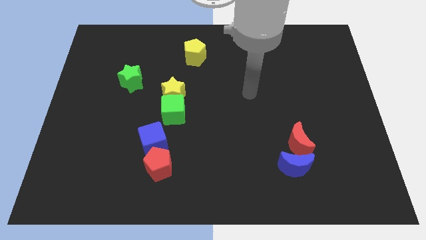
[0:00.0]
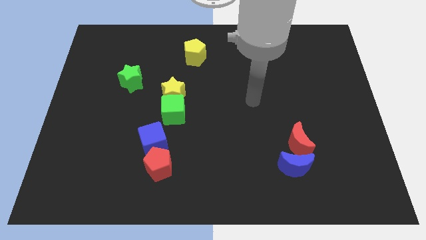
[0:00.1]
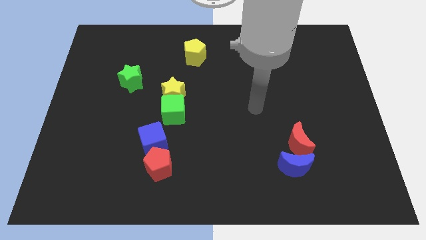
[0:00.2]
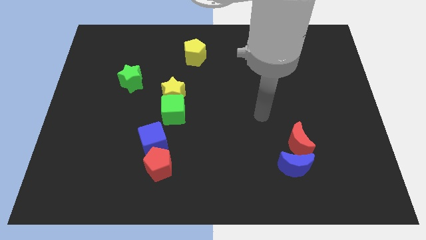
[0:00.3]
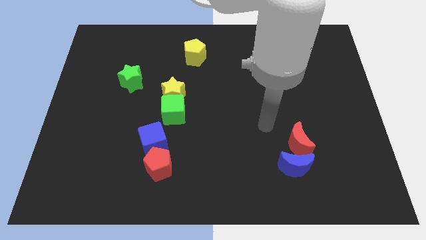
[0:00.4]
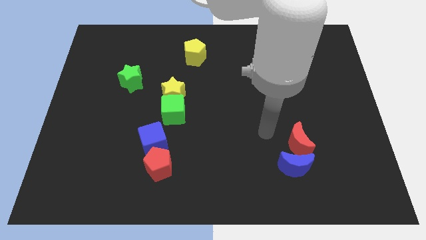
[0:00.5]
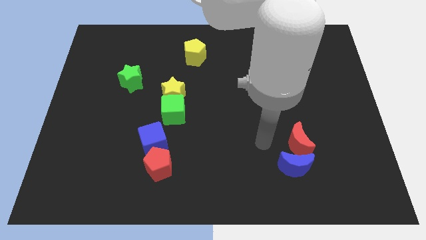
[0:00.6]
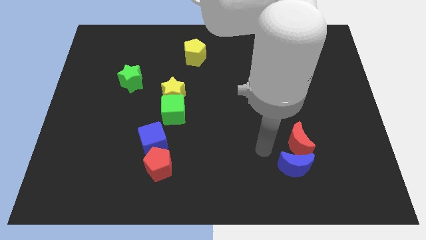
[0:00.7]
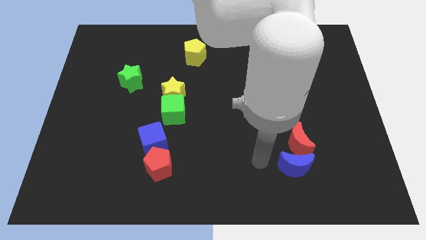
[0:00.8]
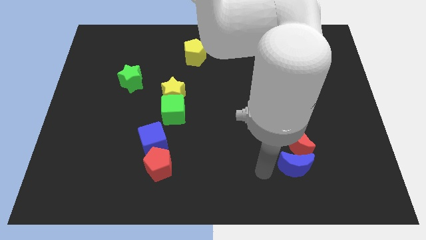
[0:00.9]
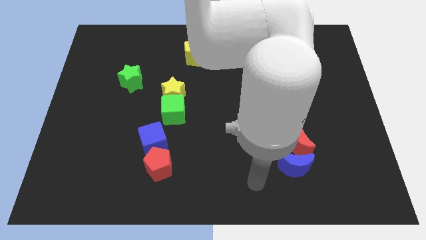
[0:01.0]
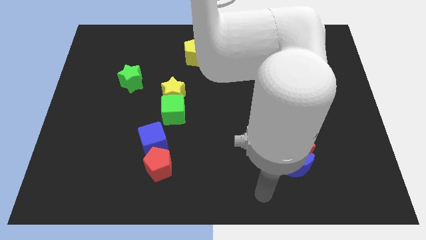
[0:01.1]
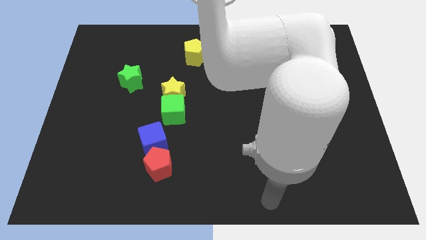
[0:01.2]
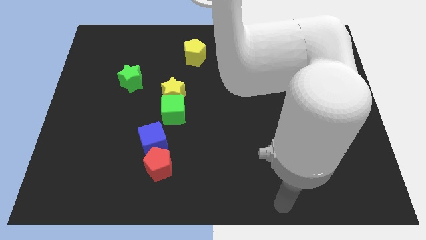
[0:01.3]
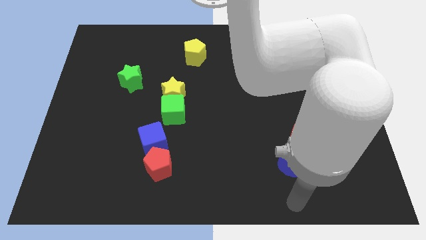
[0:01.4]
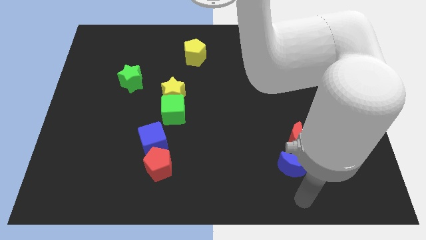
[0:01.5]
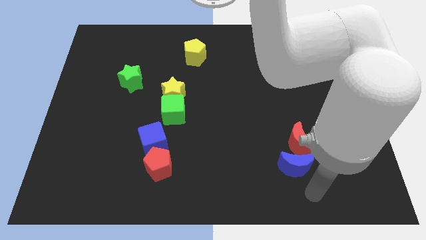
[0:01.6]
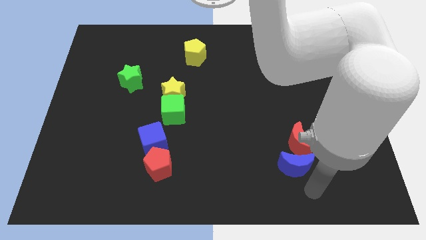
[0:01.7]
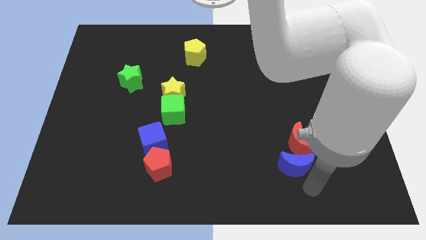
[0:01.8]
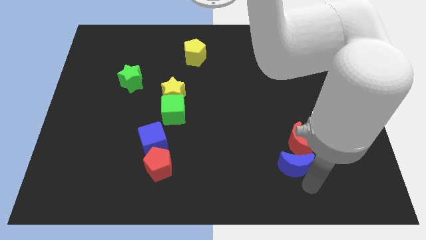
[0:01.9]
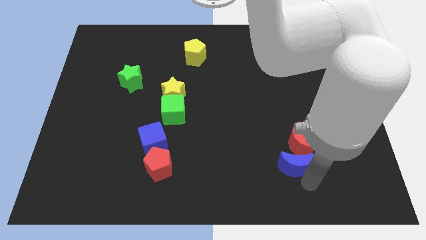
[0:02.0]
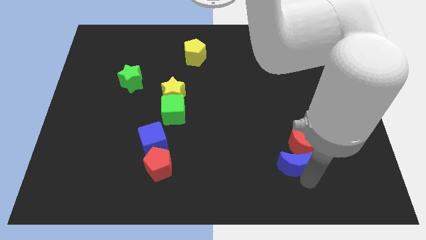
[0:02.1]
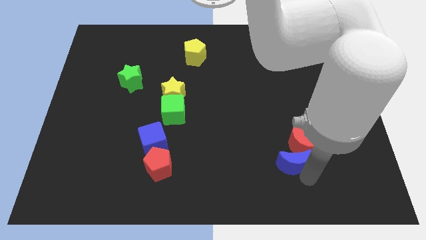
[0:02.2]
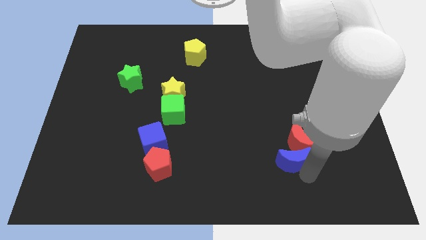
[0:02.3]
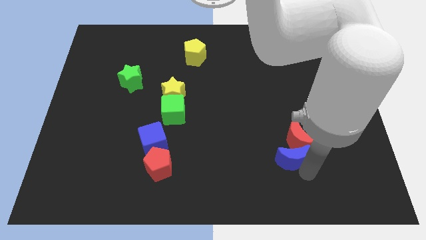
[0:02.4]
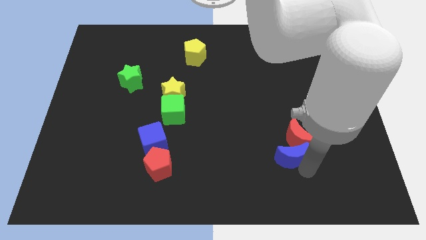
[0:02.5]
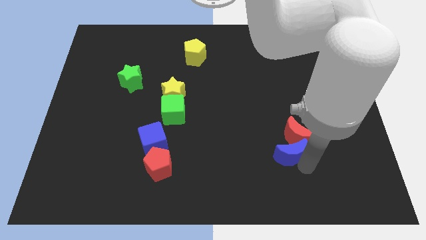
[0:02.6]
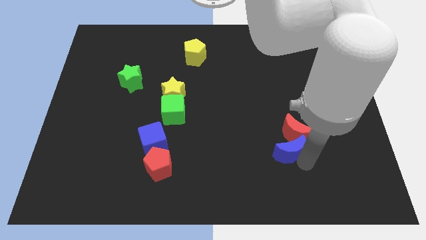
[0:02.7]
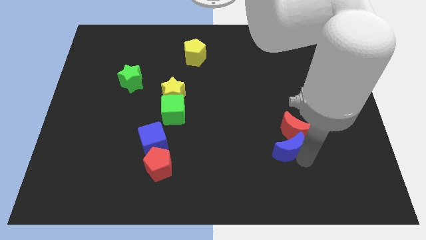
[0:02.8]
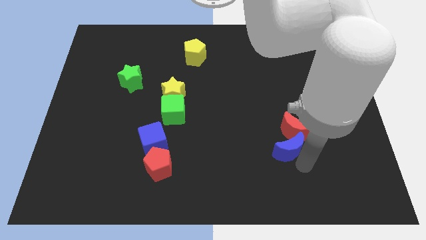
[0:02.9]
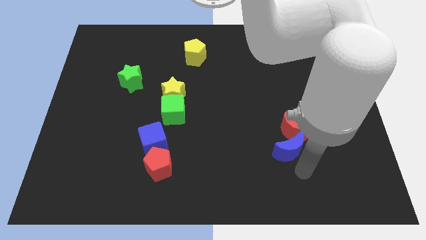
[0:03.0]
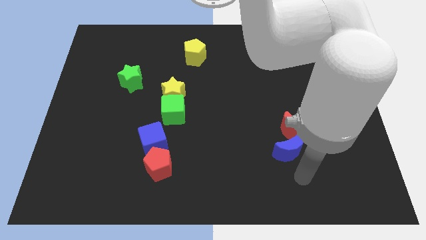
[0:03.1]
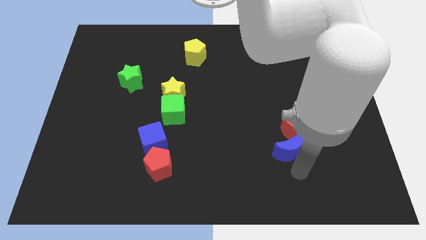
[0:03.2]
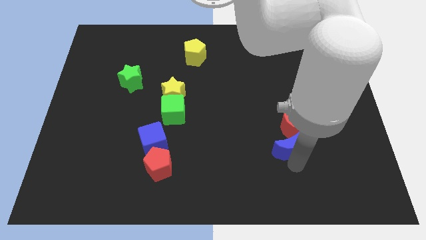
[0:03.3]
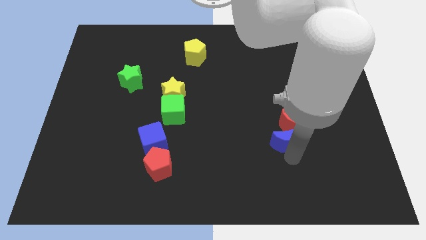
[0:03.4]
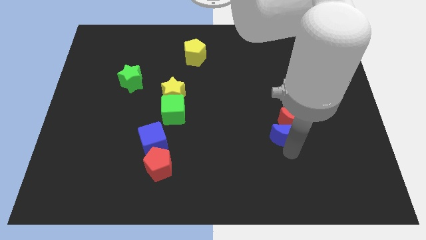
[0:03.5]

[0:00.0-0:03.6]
push the blue moon upwards slightly

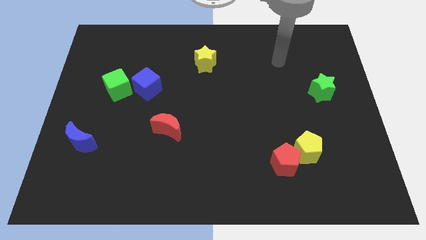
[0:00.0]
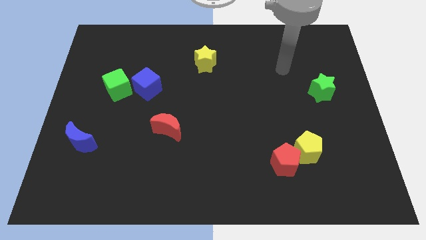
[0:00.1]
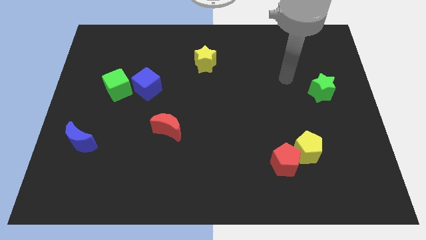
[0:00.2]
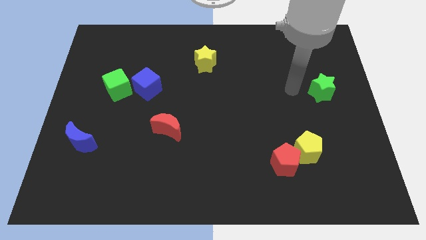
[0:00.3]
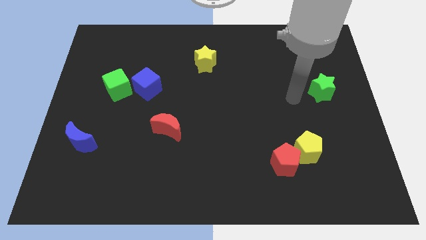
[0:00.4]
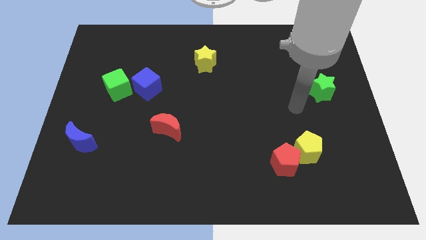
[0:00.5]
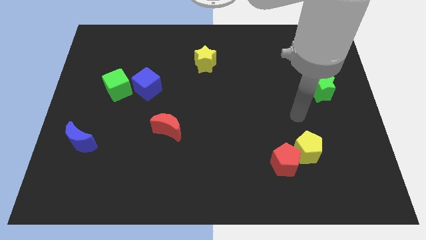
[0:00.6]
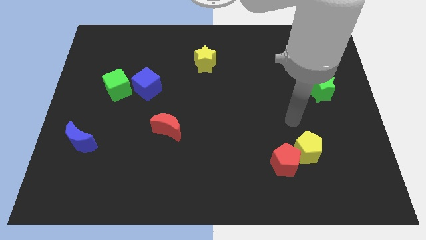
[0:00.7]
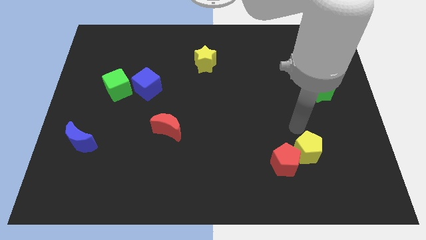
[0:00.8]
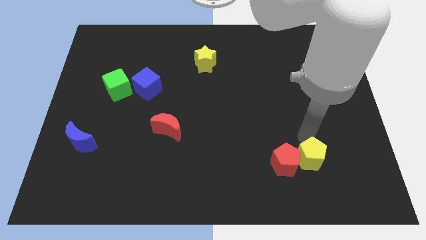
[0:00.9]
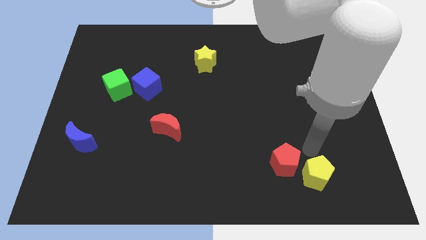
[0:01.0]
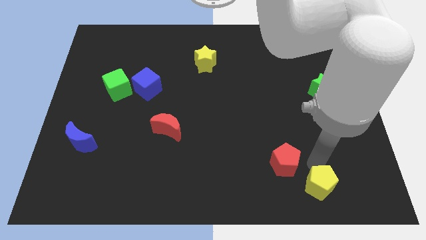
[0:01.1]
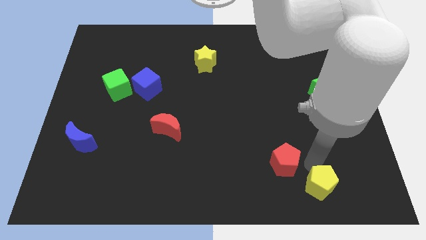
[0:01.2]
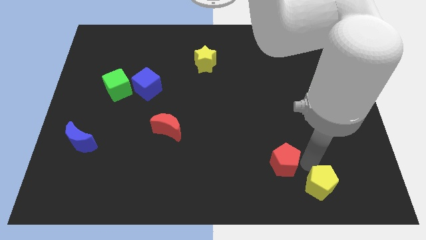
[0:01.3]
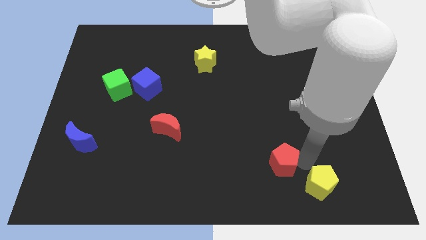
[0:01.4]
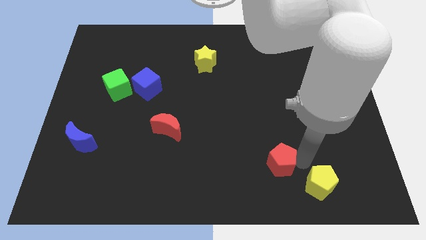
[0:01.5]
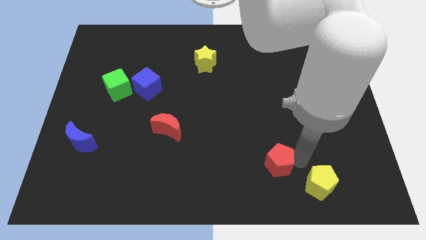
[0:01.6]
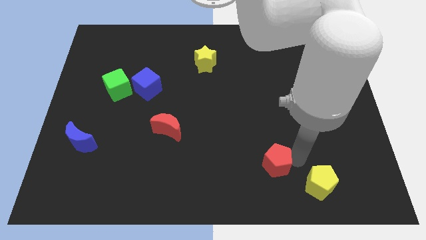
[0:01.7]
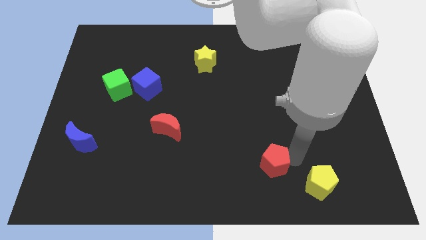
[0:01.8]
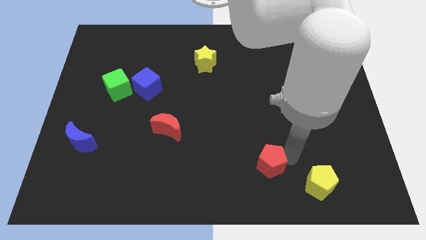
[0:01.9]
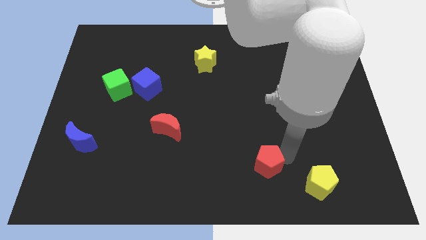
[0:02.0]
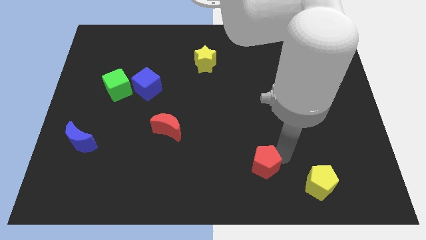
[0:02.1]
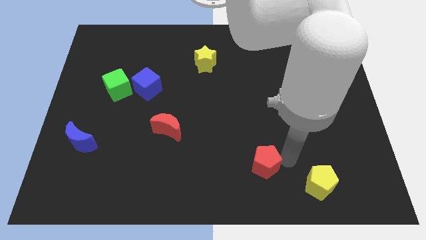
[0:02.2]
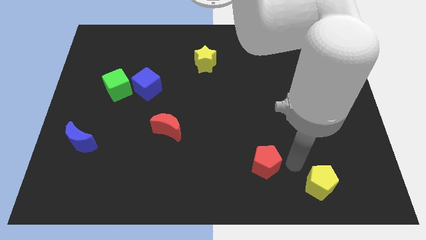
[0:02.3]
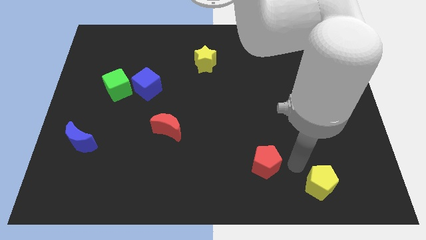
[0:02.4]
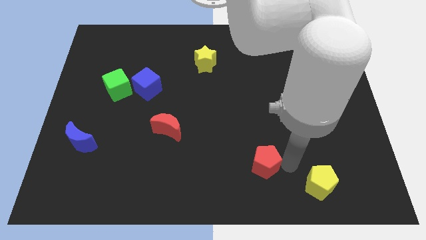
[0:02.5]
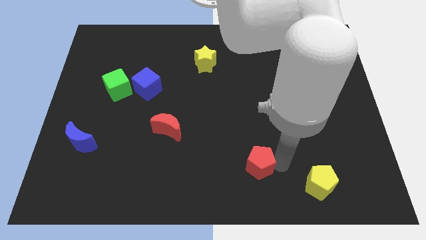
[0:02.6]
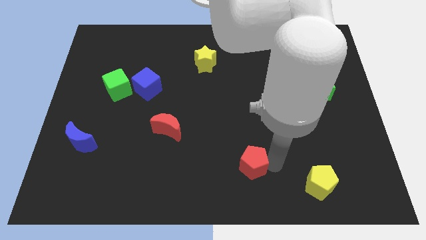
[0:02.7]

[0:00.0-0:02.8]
slide the red pentagon left a bit

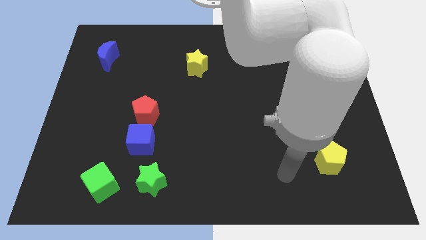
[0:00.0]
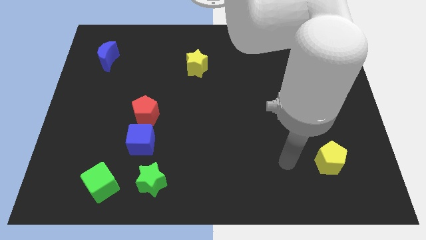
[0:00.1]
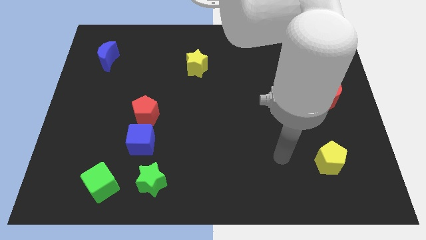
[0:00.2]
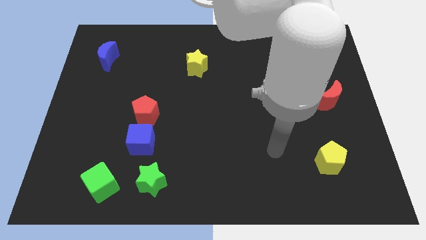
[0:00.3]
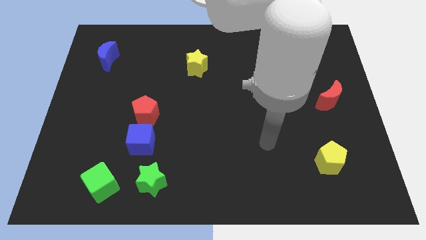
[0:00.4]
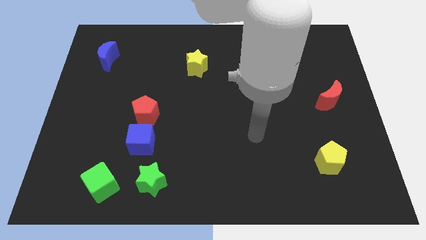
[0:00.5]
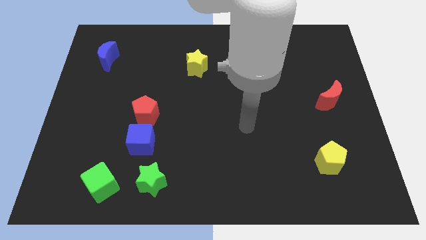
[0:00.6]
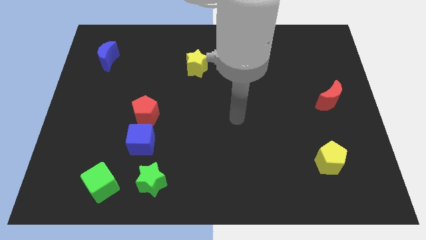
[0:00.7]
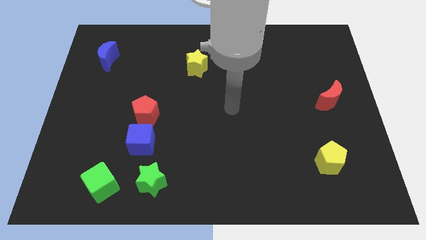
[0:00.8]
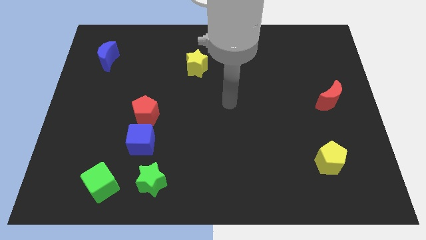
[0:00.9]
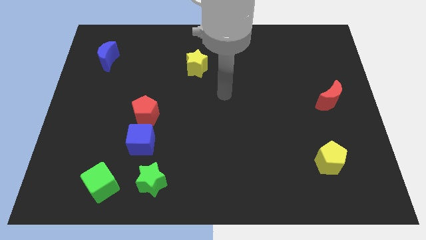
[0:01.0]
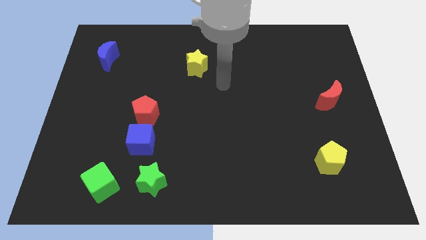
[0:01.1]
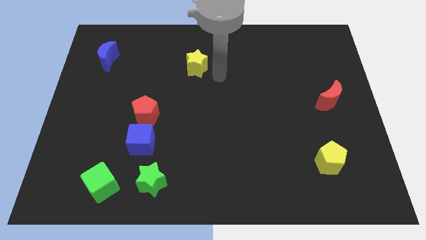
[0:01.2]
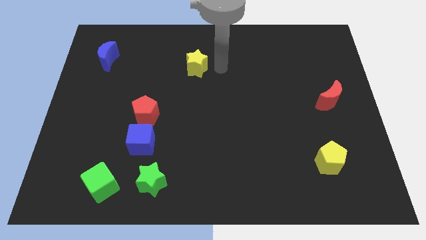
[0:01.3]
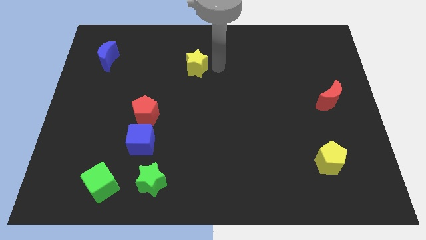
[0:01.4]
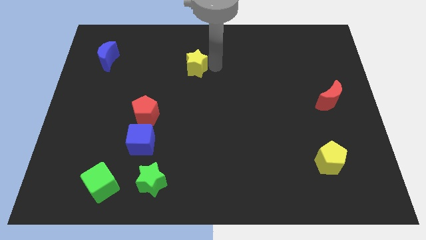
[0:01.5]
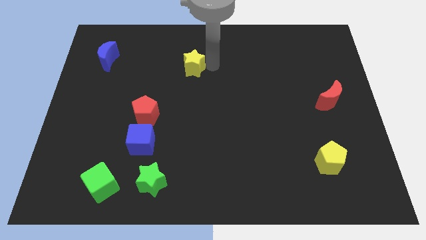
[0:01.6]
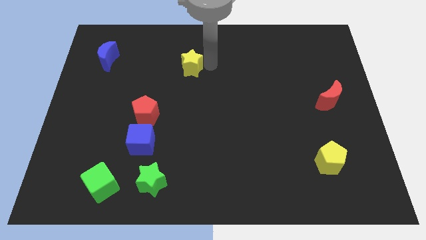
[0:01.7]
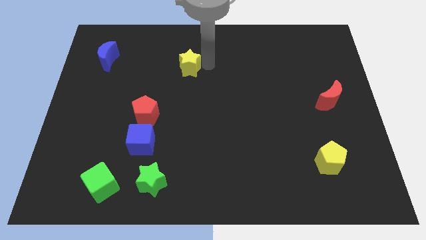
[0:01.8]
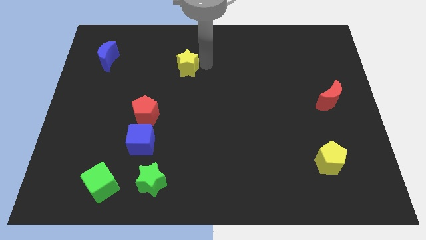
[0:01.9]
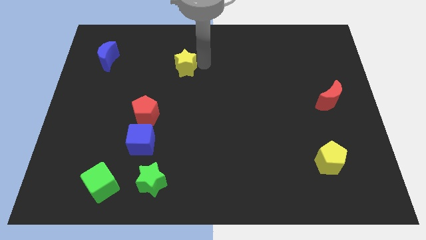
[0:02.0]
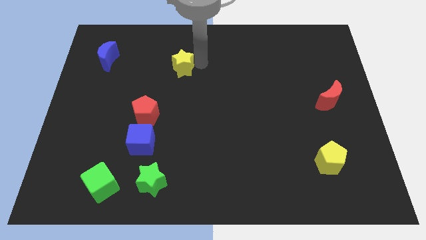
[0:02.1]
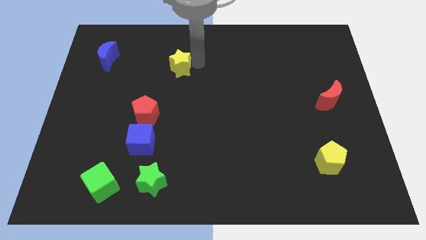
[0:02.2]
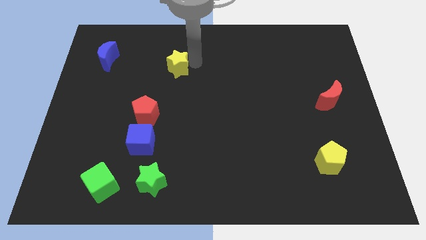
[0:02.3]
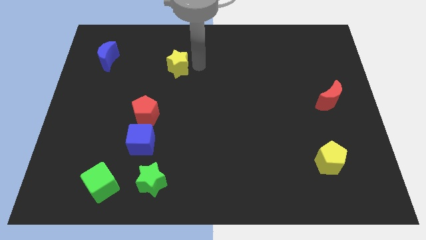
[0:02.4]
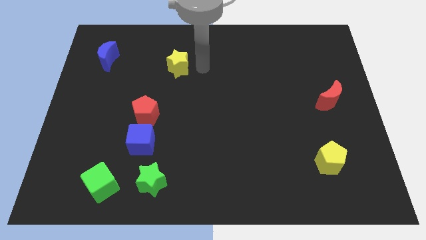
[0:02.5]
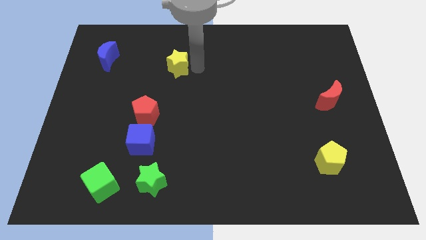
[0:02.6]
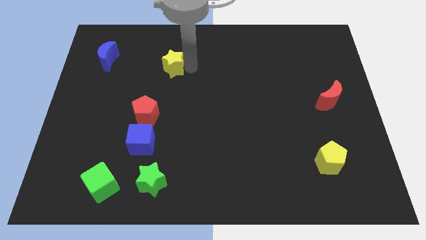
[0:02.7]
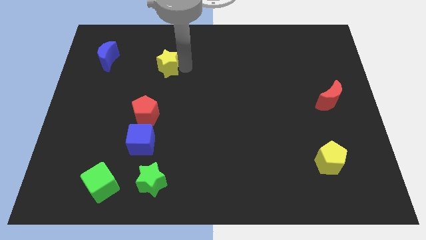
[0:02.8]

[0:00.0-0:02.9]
slide the yellow star left a little
